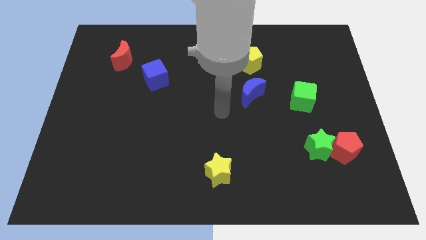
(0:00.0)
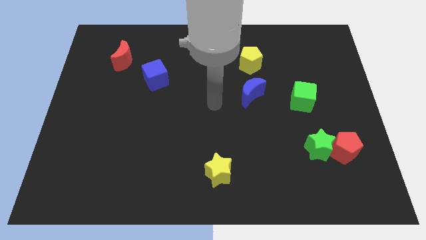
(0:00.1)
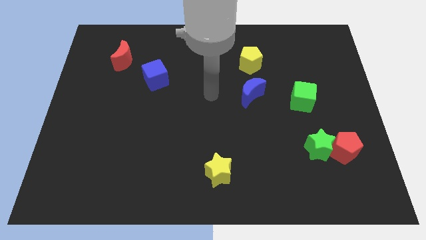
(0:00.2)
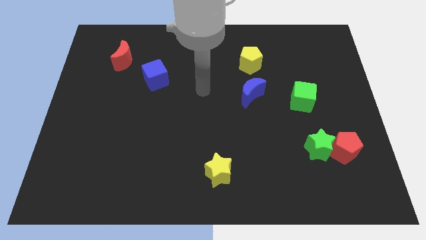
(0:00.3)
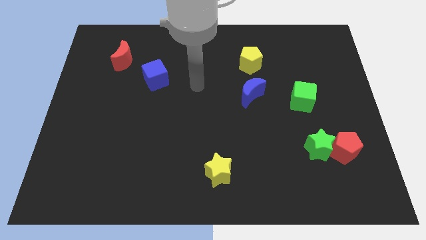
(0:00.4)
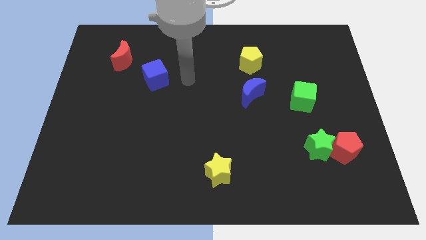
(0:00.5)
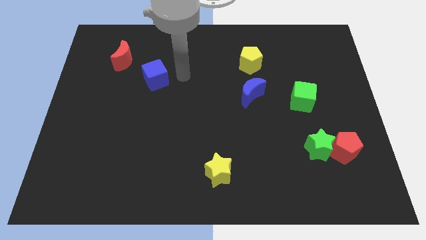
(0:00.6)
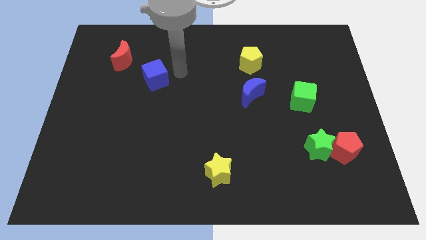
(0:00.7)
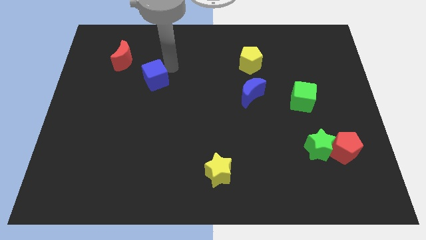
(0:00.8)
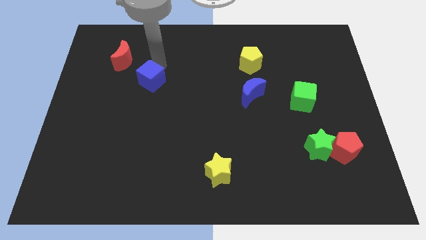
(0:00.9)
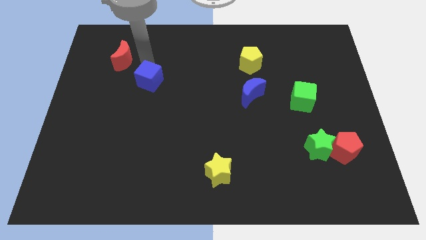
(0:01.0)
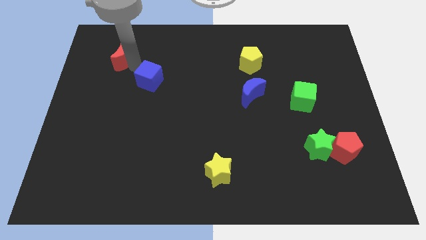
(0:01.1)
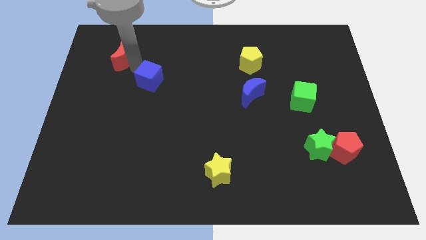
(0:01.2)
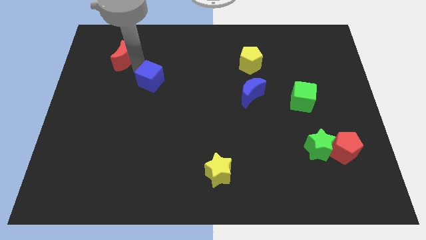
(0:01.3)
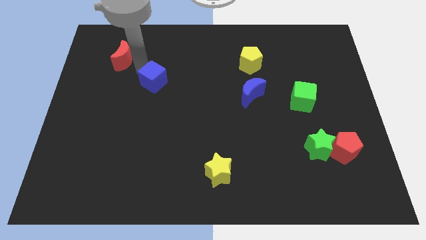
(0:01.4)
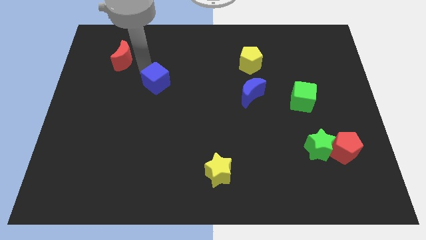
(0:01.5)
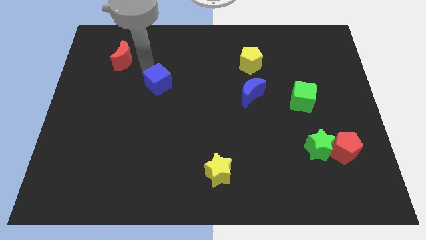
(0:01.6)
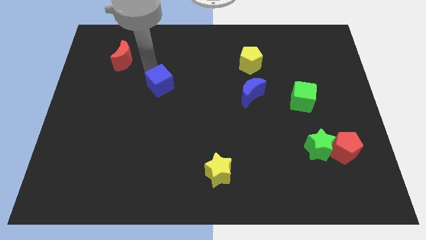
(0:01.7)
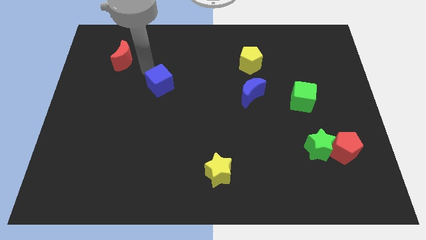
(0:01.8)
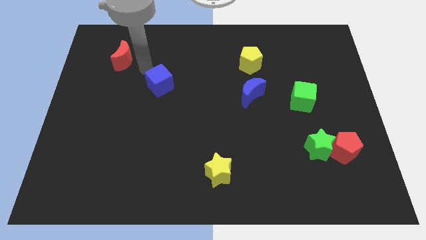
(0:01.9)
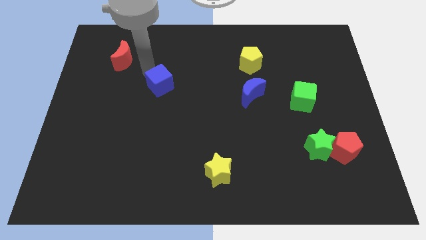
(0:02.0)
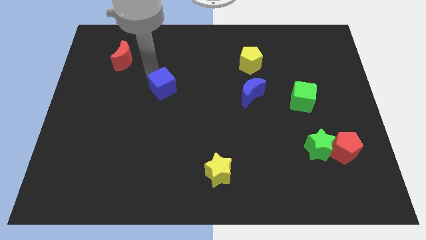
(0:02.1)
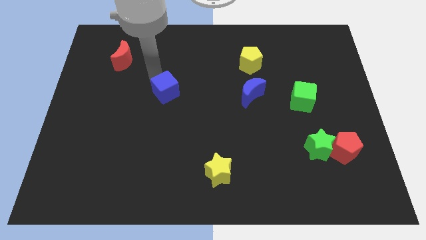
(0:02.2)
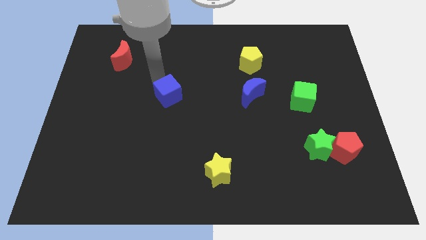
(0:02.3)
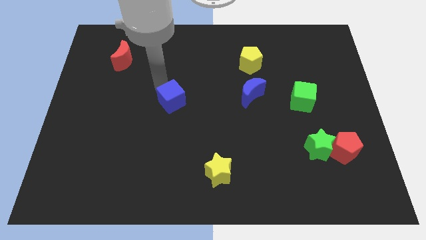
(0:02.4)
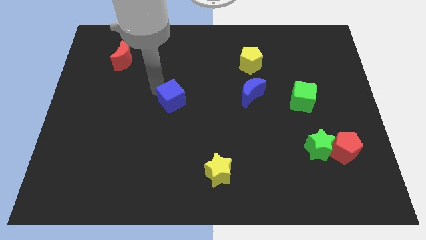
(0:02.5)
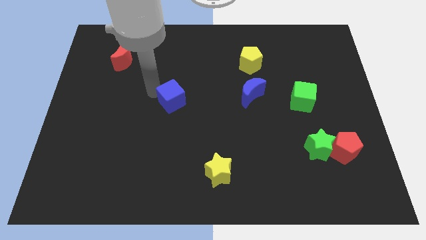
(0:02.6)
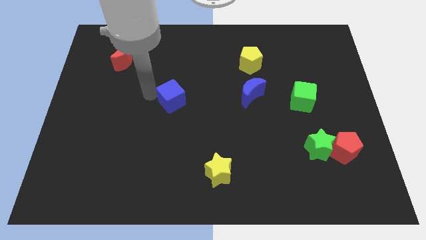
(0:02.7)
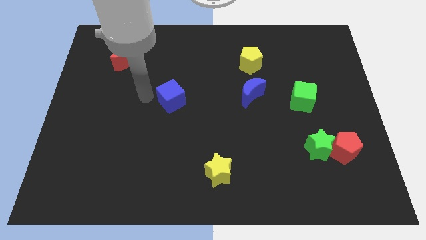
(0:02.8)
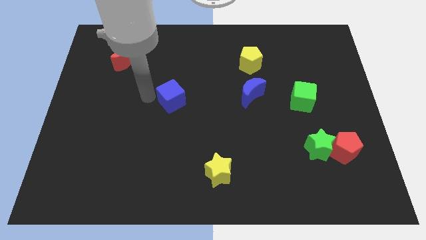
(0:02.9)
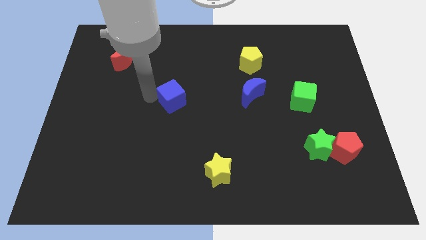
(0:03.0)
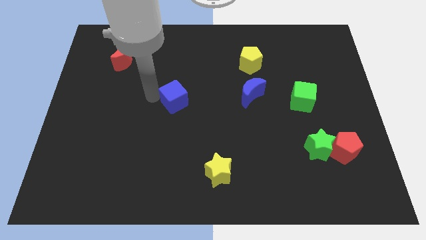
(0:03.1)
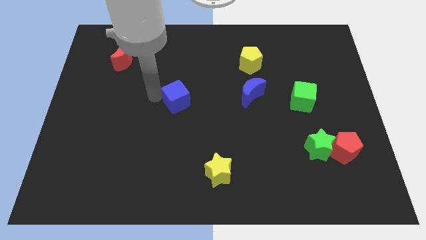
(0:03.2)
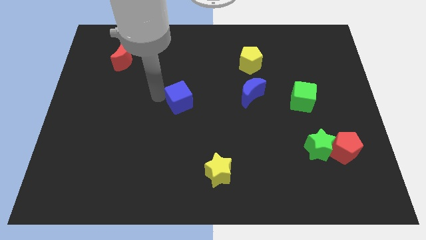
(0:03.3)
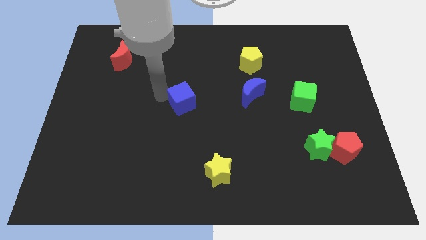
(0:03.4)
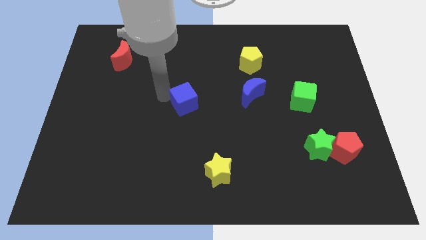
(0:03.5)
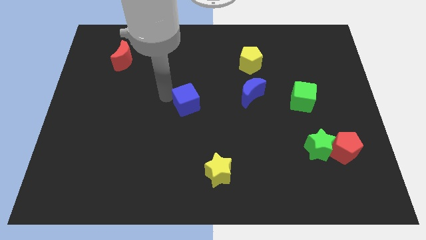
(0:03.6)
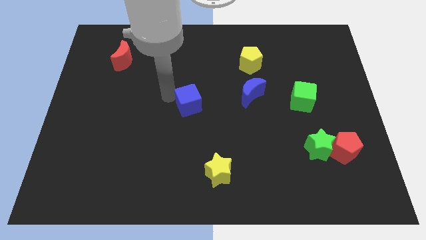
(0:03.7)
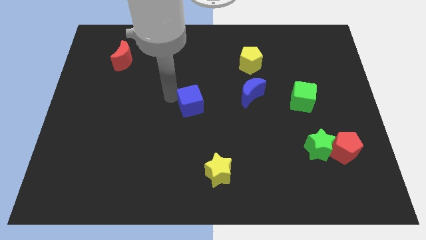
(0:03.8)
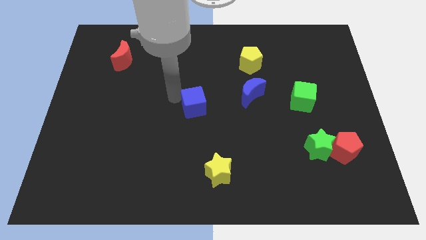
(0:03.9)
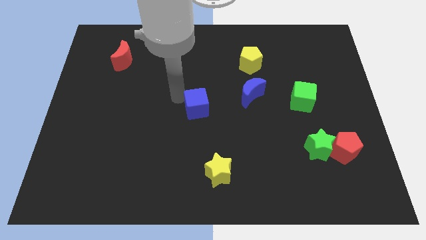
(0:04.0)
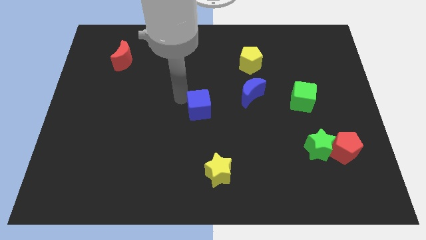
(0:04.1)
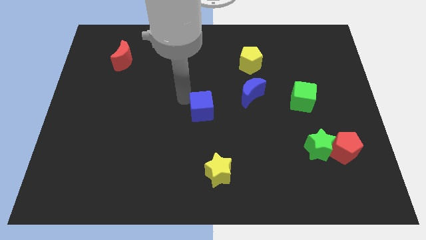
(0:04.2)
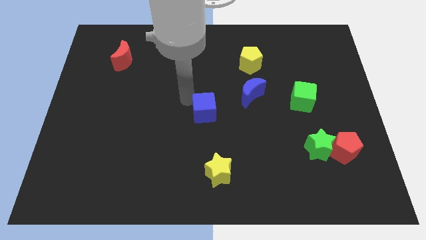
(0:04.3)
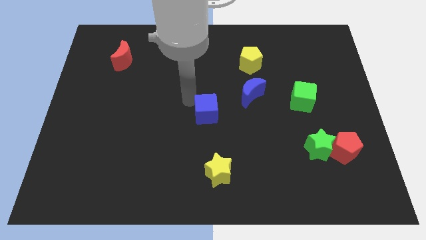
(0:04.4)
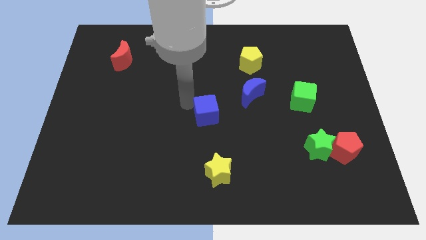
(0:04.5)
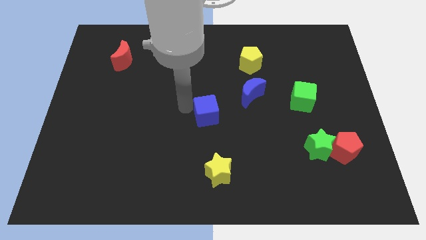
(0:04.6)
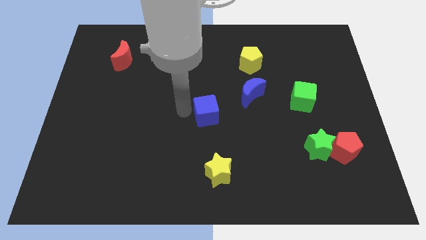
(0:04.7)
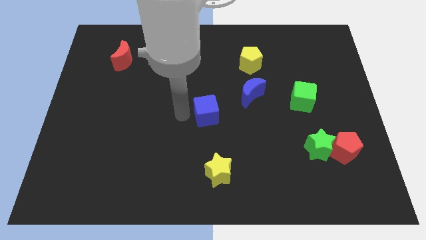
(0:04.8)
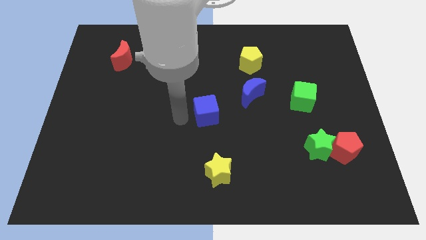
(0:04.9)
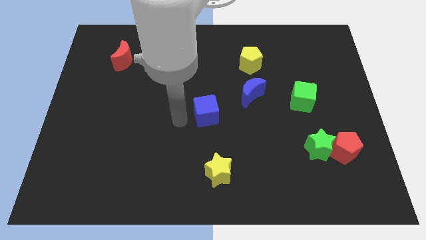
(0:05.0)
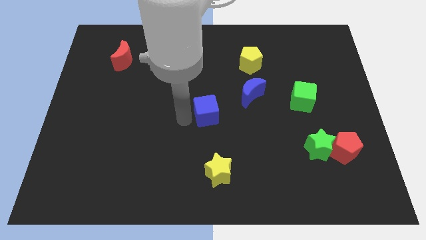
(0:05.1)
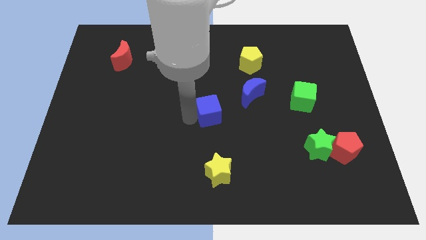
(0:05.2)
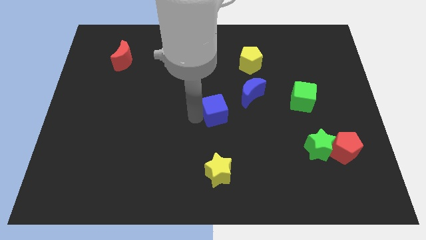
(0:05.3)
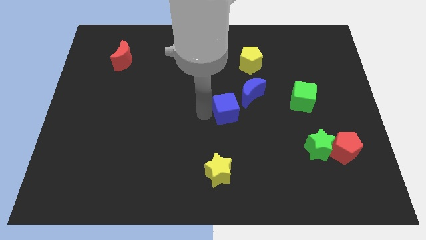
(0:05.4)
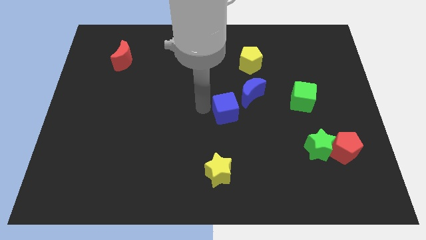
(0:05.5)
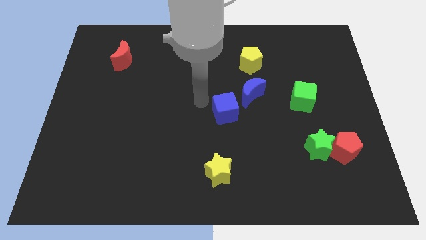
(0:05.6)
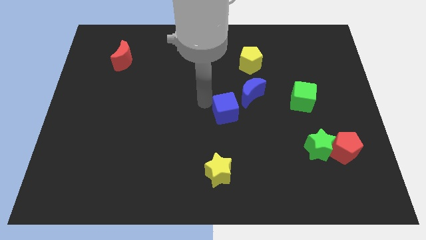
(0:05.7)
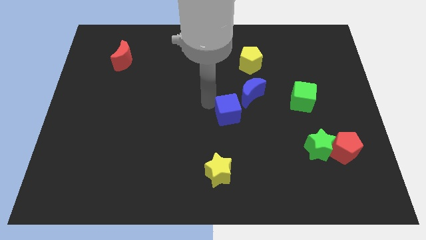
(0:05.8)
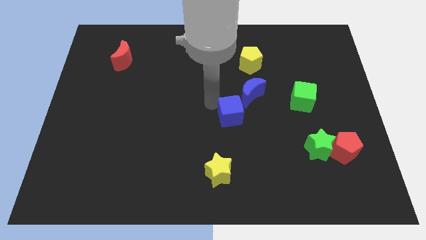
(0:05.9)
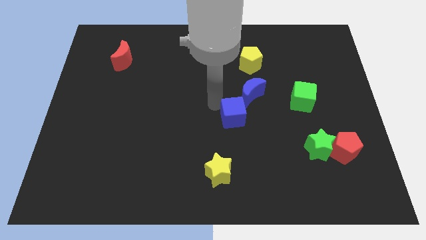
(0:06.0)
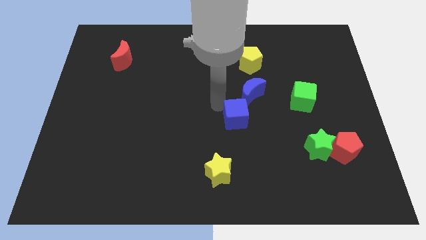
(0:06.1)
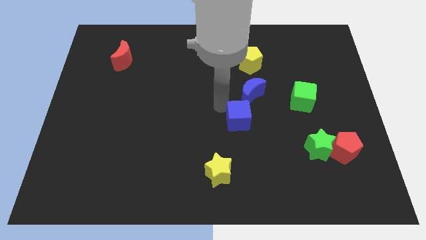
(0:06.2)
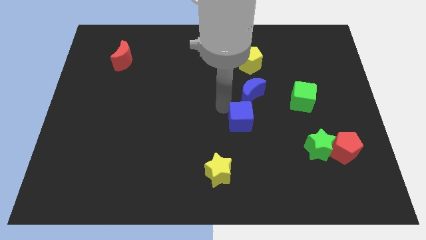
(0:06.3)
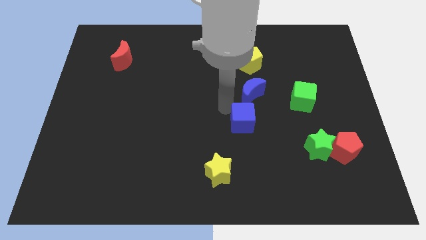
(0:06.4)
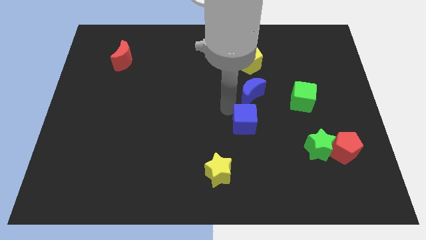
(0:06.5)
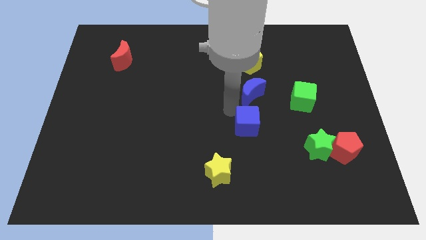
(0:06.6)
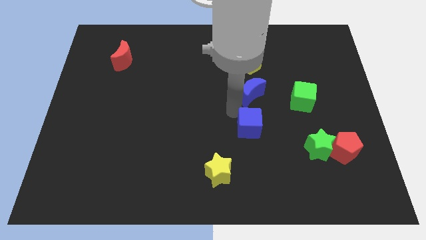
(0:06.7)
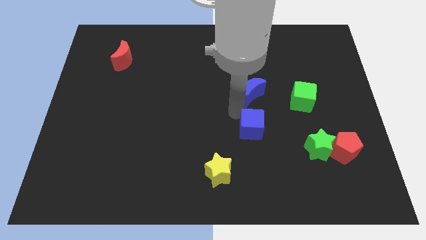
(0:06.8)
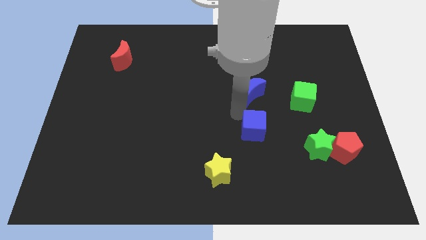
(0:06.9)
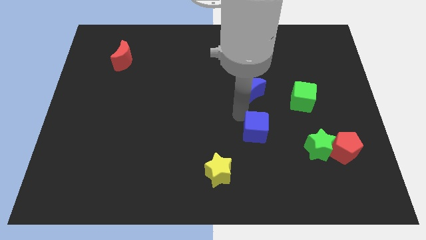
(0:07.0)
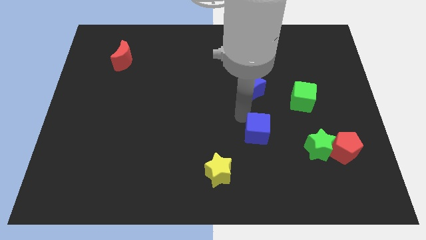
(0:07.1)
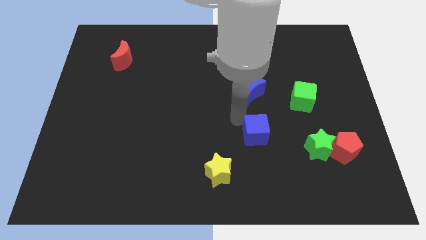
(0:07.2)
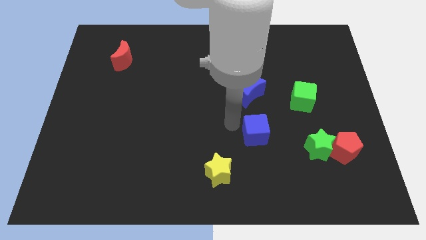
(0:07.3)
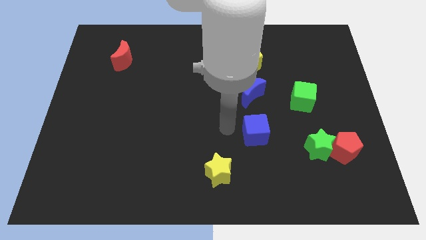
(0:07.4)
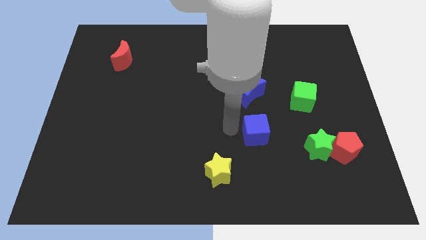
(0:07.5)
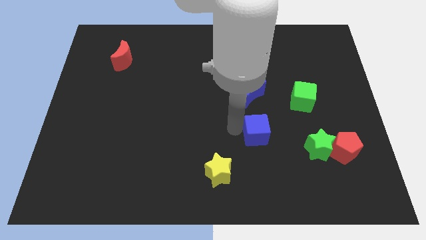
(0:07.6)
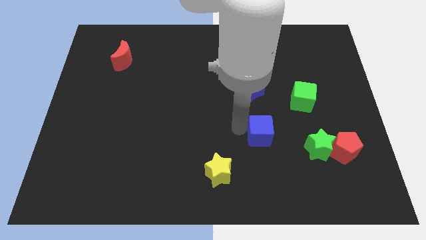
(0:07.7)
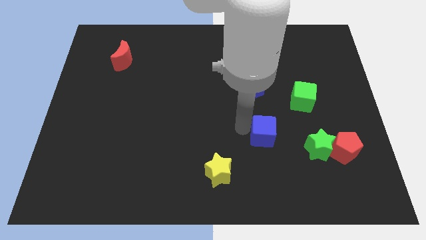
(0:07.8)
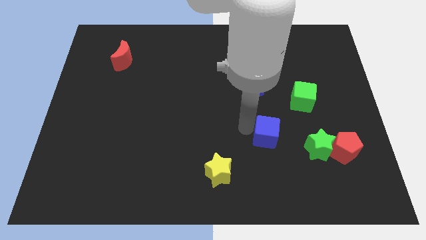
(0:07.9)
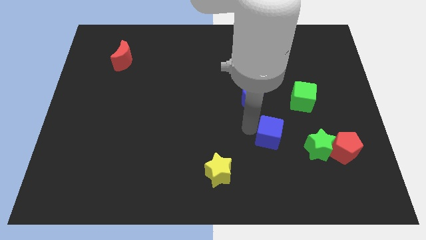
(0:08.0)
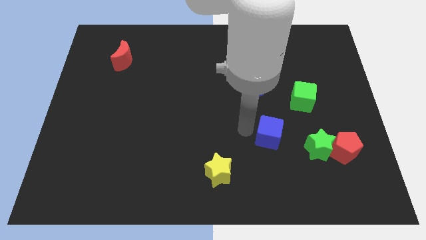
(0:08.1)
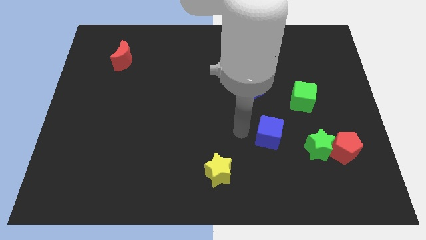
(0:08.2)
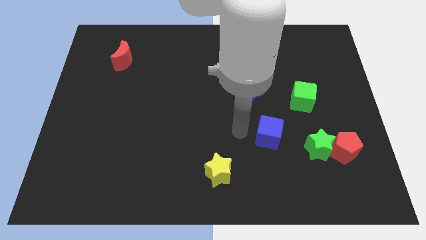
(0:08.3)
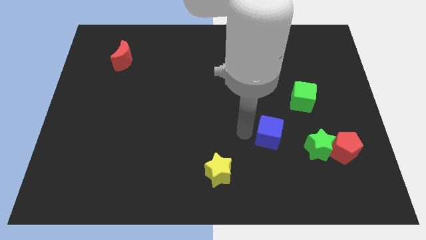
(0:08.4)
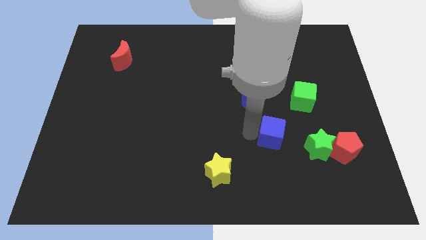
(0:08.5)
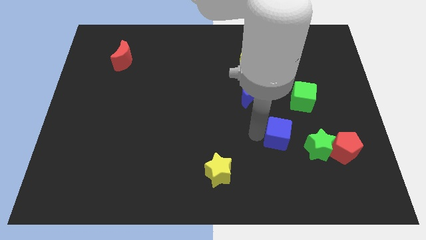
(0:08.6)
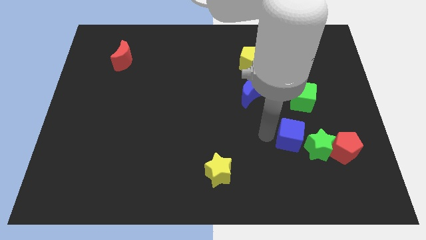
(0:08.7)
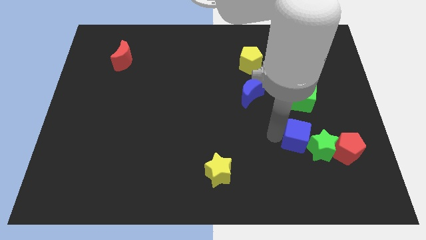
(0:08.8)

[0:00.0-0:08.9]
put the blue cube close to the green star
